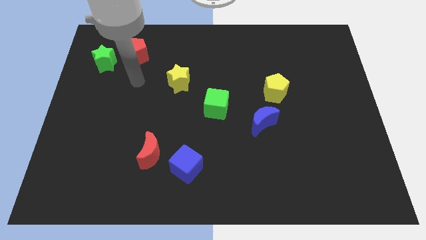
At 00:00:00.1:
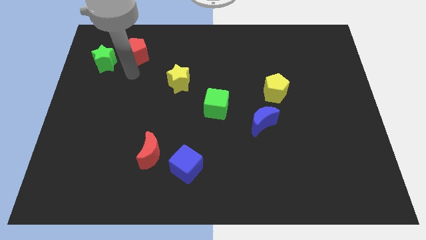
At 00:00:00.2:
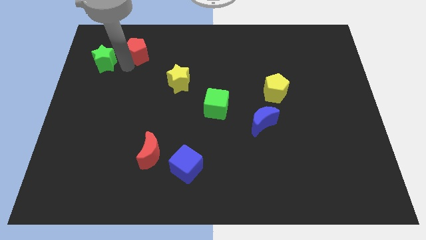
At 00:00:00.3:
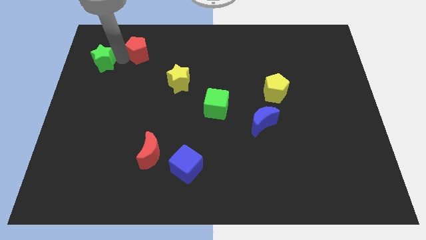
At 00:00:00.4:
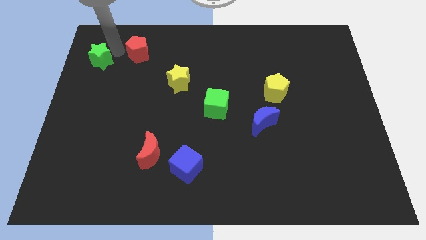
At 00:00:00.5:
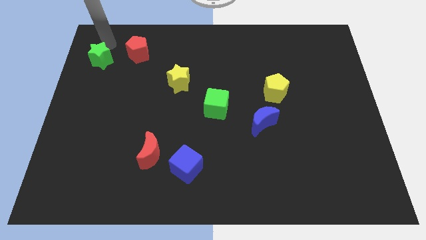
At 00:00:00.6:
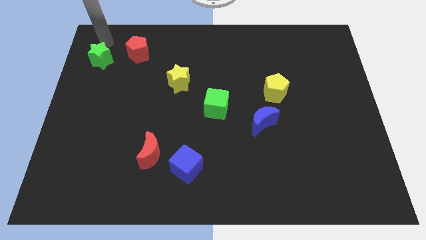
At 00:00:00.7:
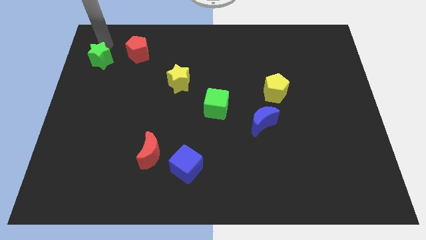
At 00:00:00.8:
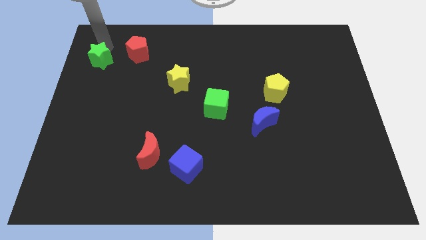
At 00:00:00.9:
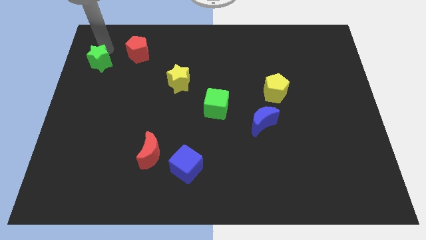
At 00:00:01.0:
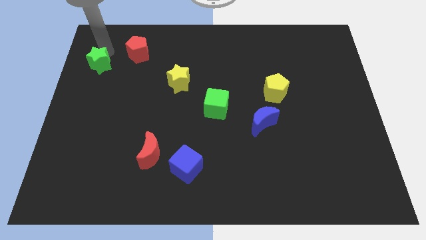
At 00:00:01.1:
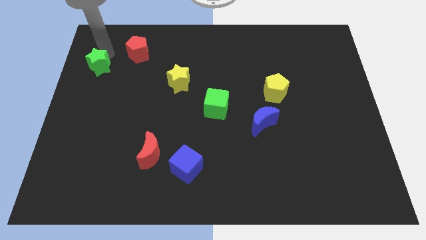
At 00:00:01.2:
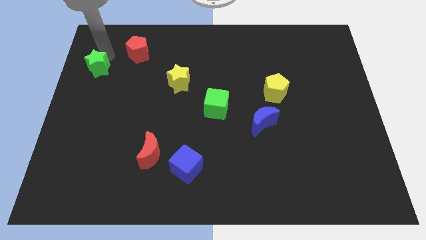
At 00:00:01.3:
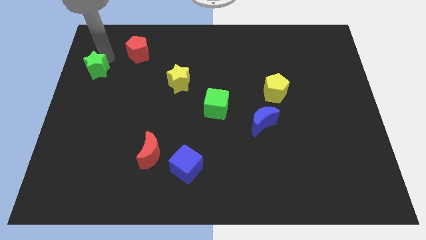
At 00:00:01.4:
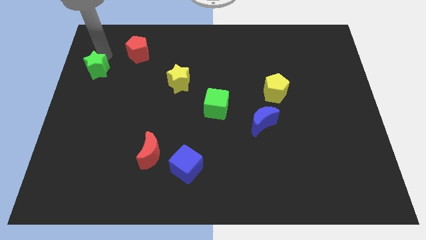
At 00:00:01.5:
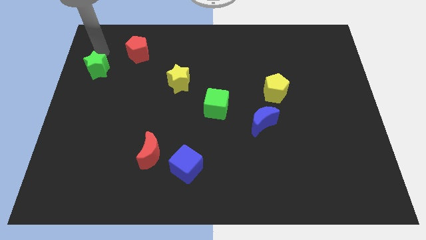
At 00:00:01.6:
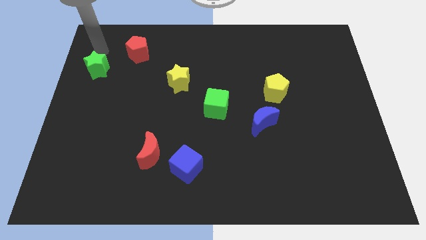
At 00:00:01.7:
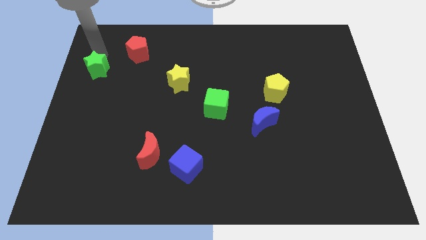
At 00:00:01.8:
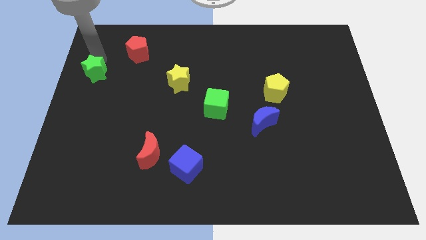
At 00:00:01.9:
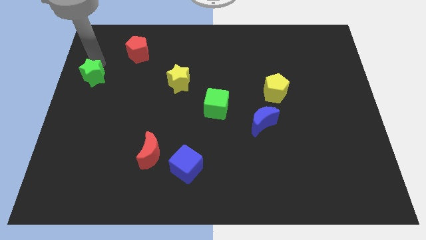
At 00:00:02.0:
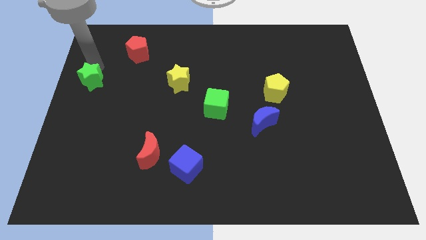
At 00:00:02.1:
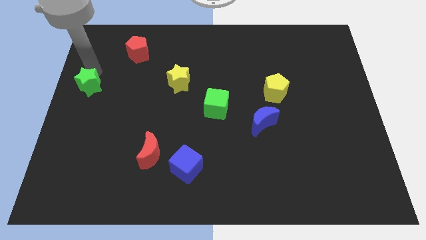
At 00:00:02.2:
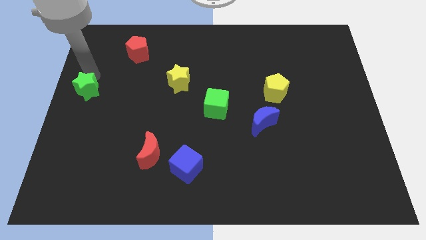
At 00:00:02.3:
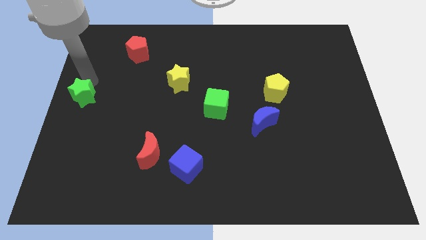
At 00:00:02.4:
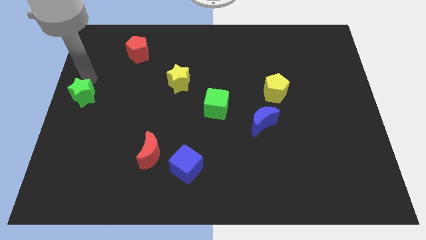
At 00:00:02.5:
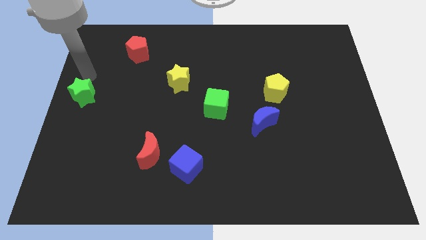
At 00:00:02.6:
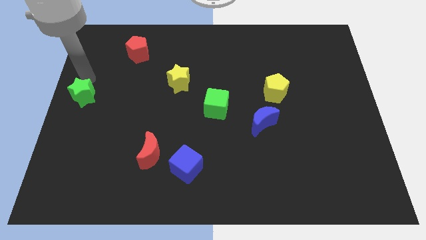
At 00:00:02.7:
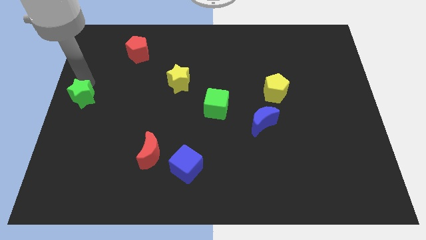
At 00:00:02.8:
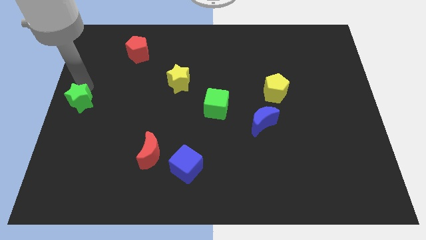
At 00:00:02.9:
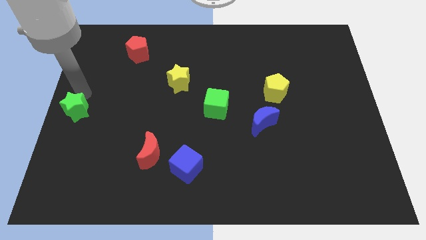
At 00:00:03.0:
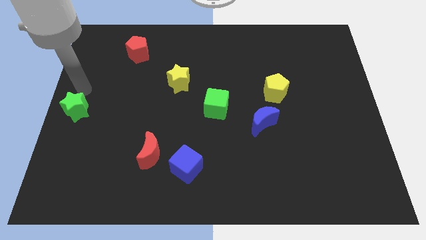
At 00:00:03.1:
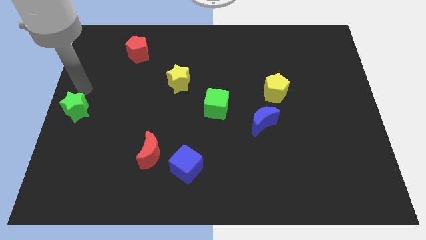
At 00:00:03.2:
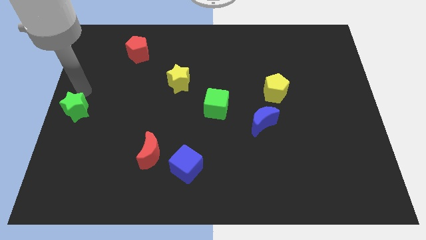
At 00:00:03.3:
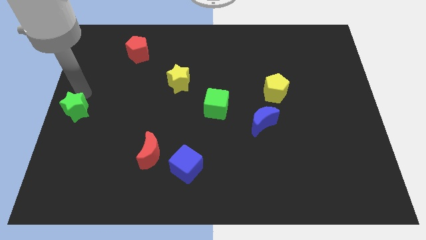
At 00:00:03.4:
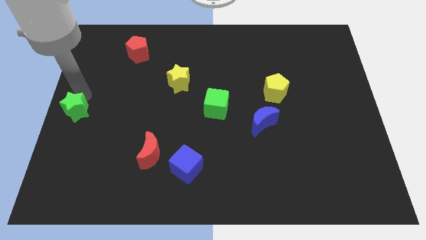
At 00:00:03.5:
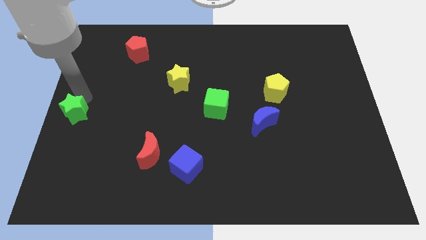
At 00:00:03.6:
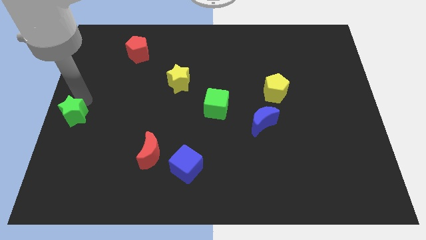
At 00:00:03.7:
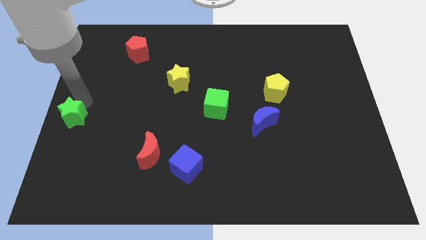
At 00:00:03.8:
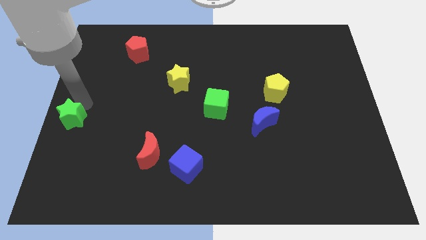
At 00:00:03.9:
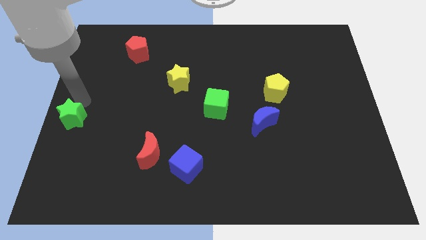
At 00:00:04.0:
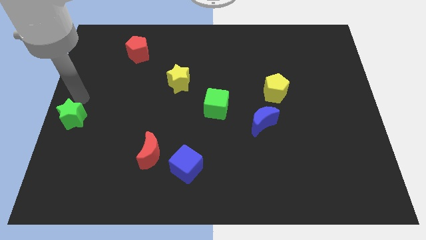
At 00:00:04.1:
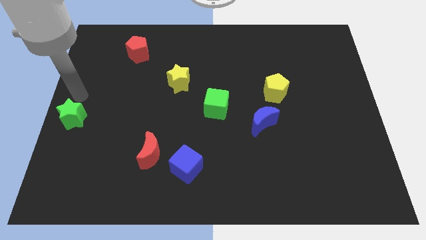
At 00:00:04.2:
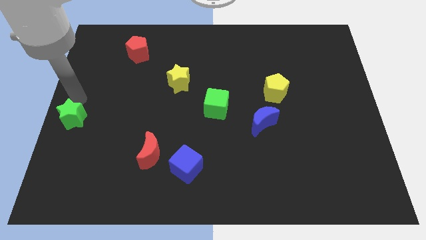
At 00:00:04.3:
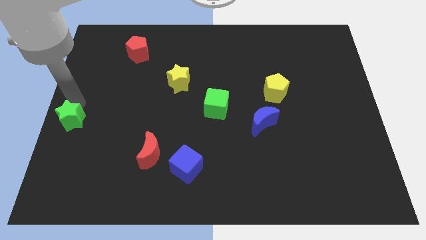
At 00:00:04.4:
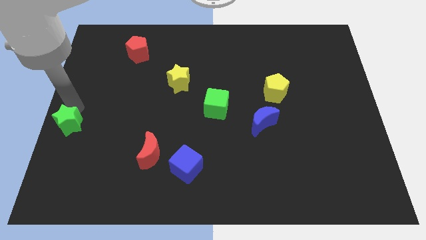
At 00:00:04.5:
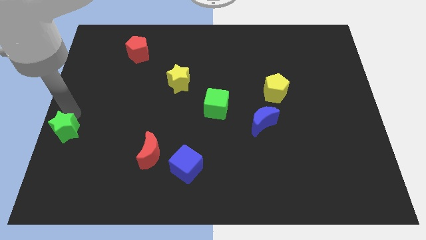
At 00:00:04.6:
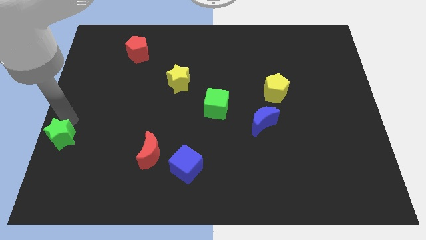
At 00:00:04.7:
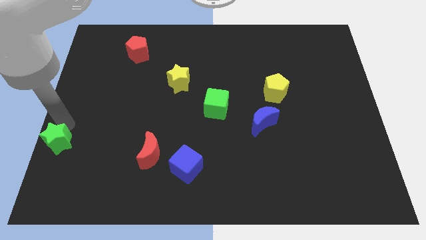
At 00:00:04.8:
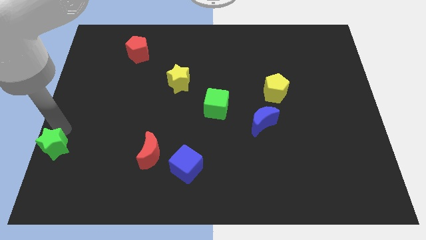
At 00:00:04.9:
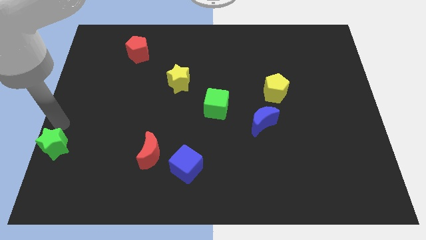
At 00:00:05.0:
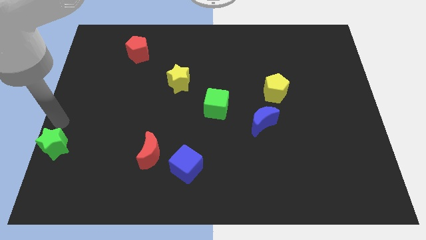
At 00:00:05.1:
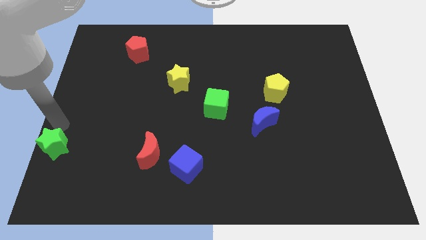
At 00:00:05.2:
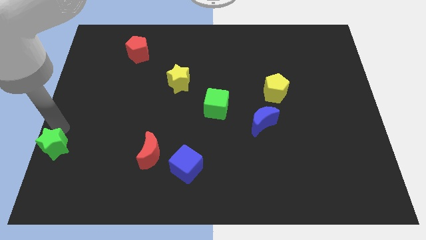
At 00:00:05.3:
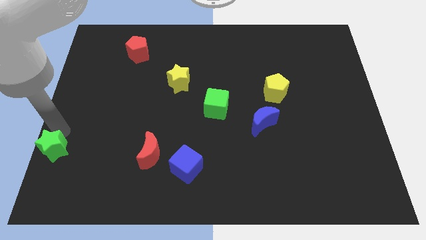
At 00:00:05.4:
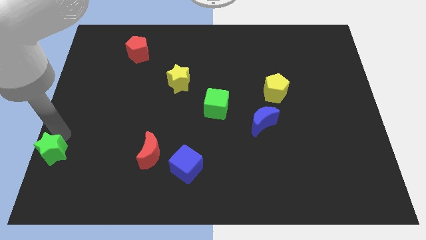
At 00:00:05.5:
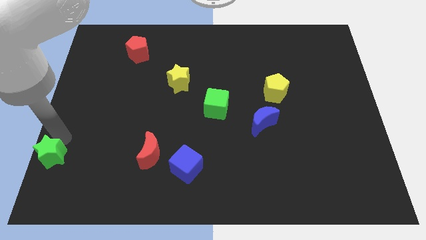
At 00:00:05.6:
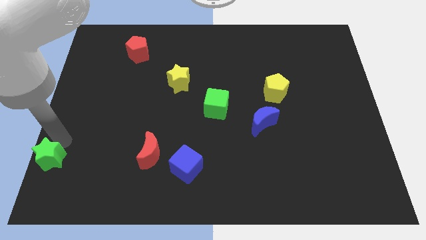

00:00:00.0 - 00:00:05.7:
push the green star to the lower left corner
